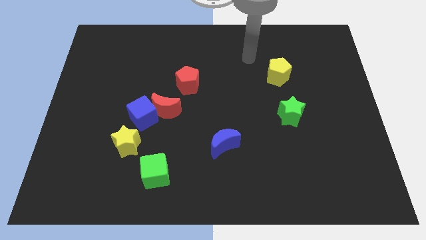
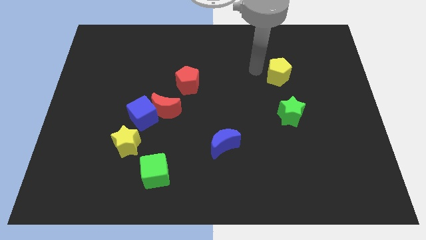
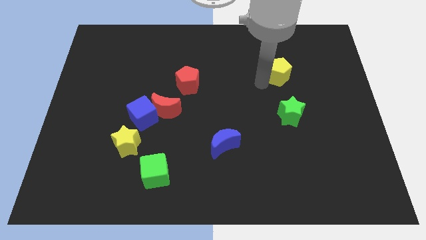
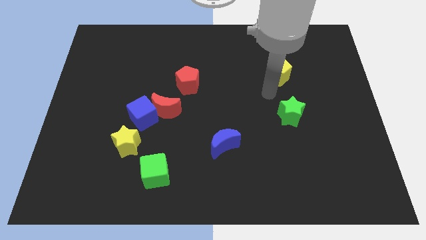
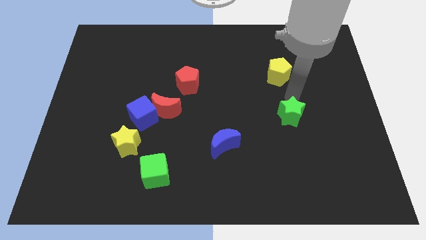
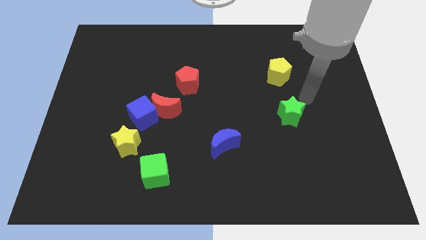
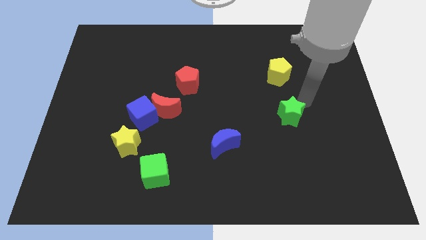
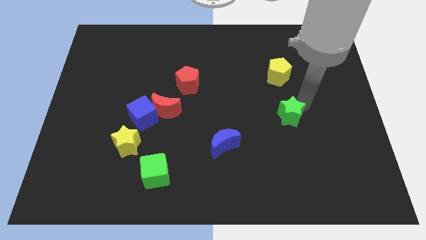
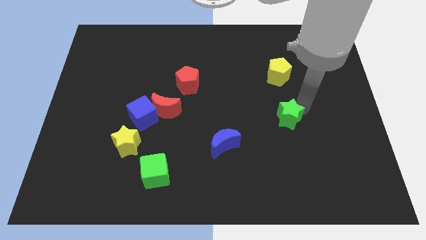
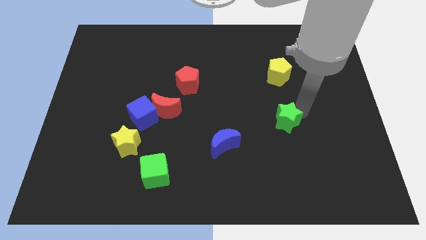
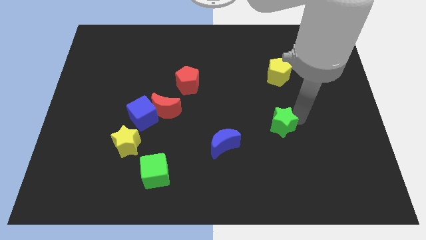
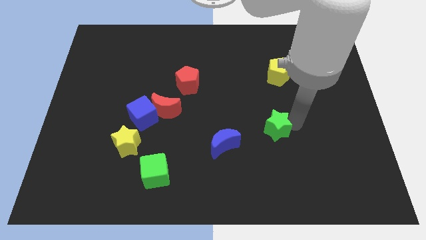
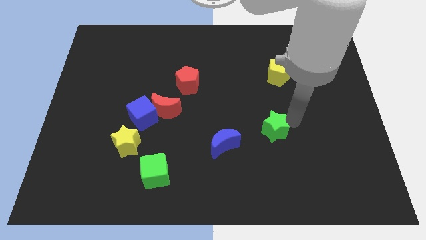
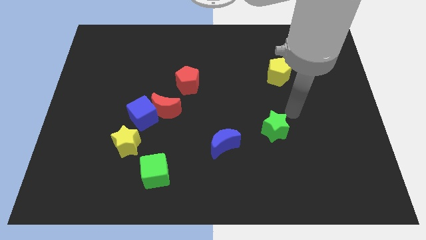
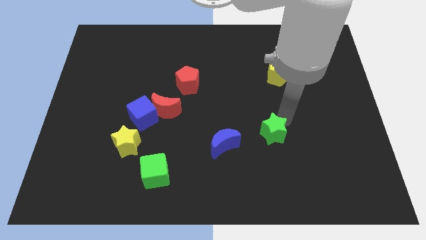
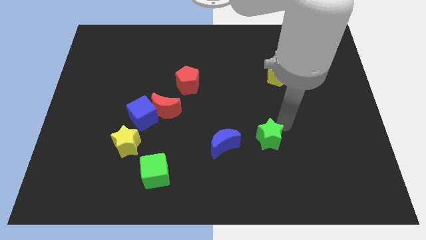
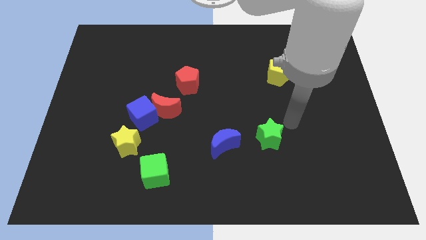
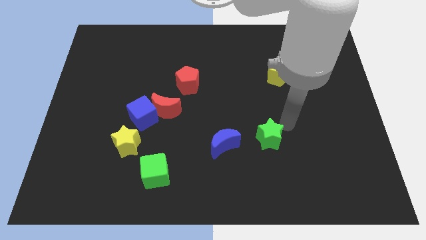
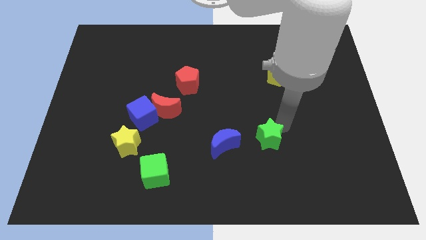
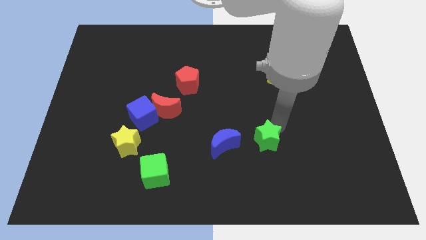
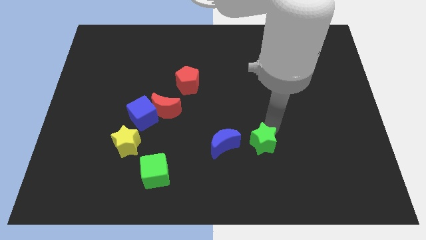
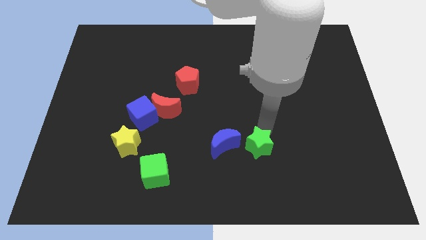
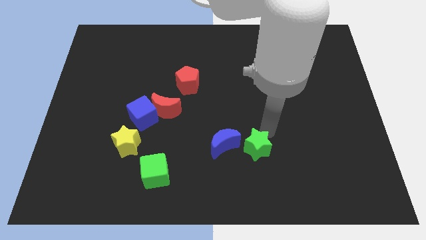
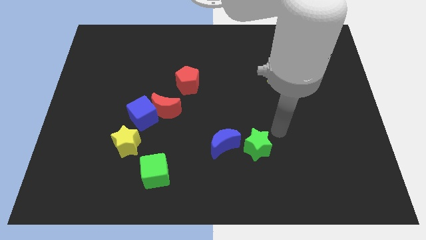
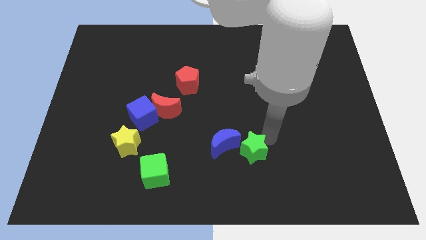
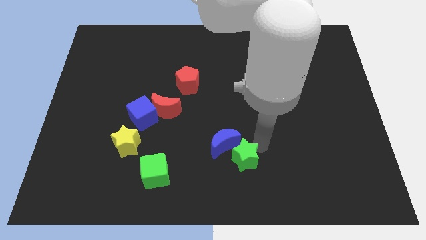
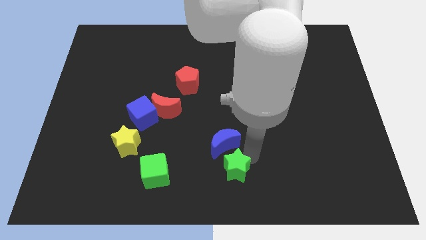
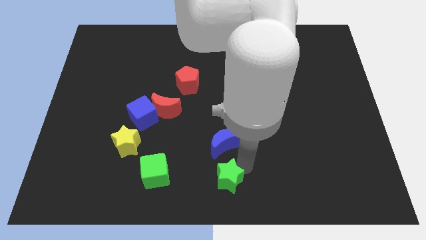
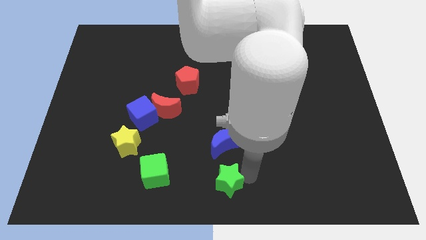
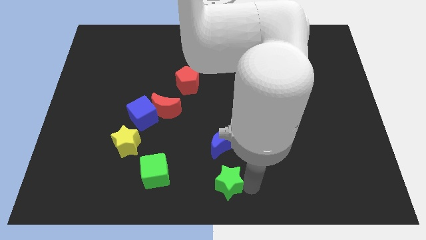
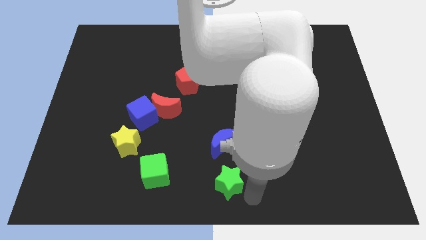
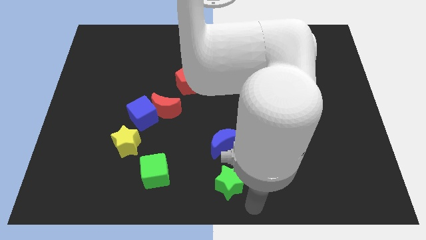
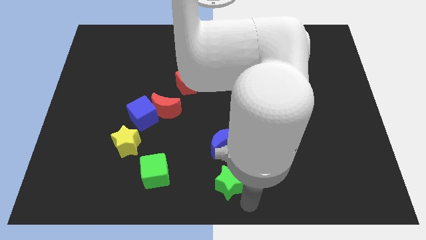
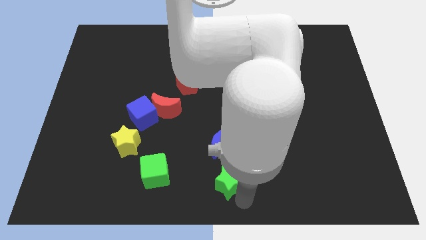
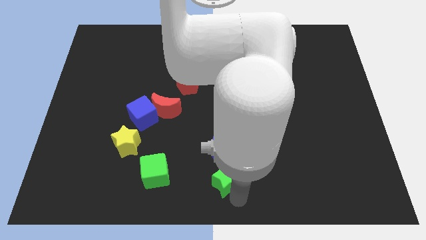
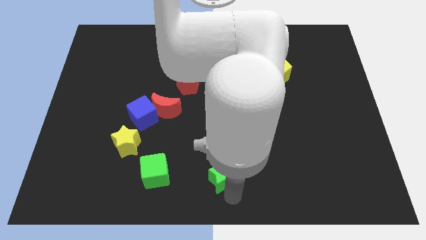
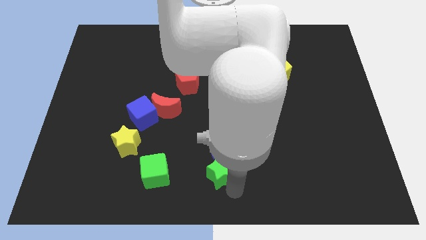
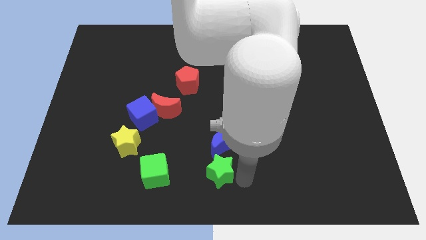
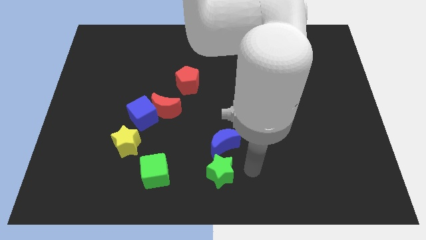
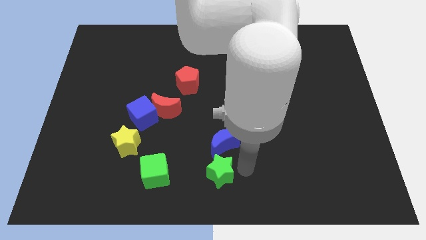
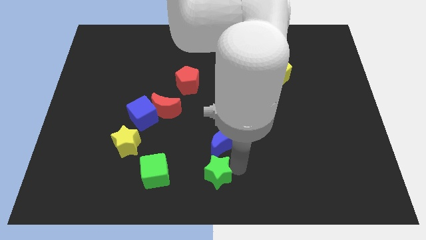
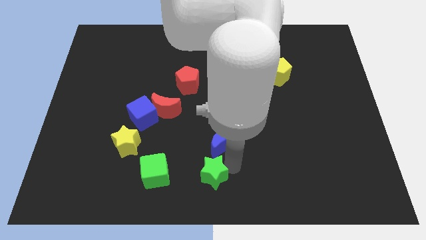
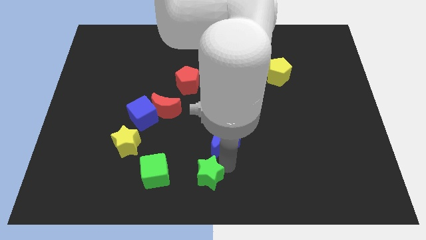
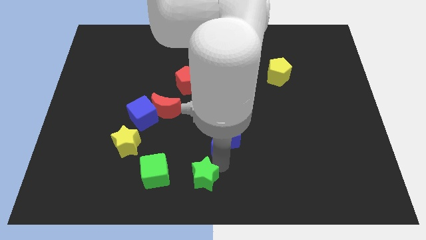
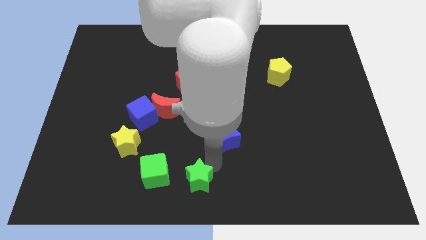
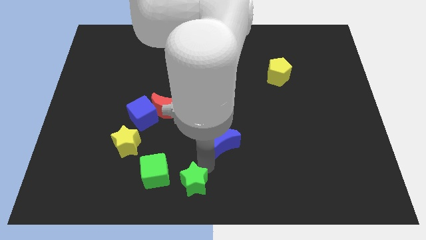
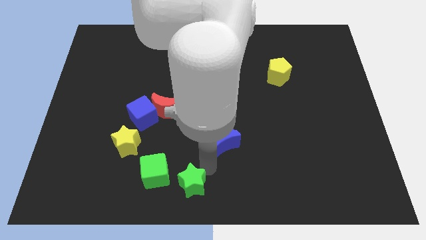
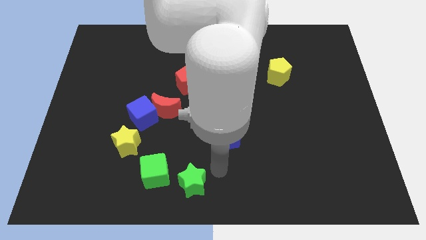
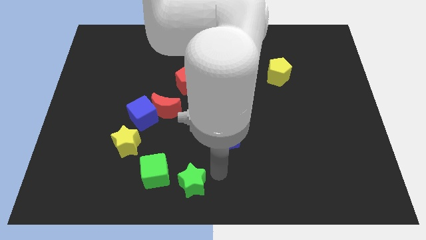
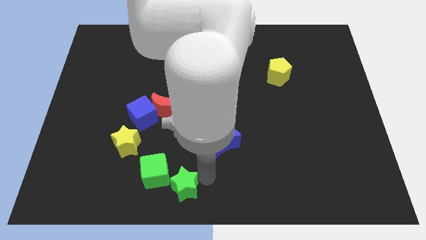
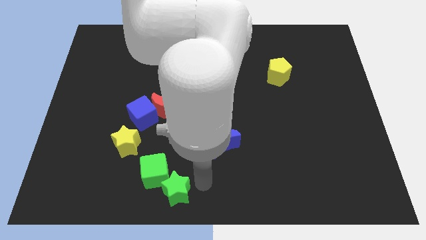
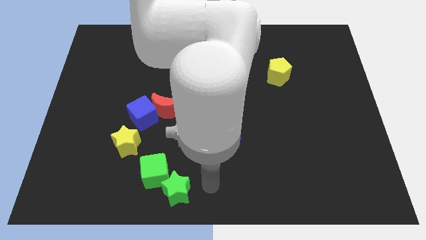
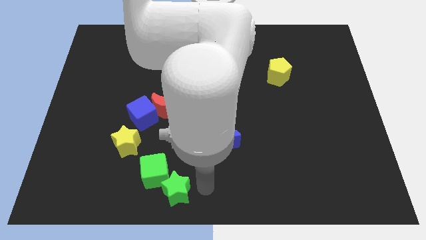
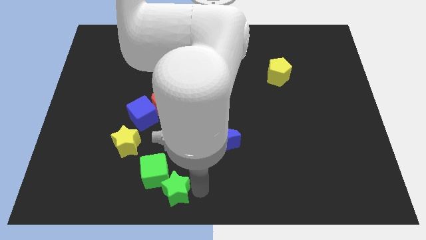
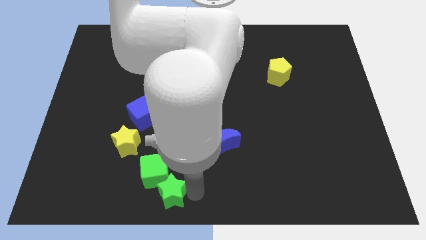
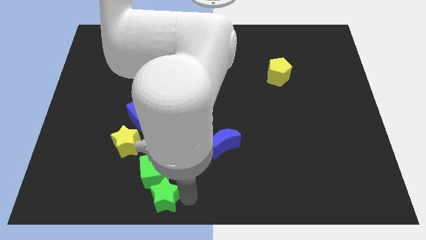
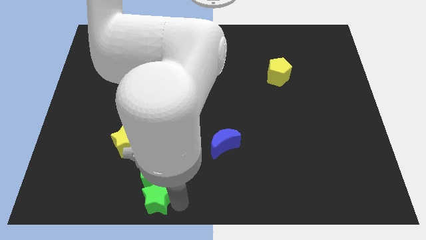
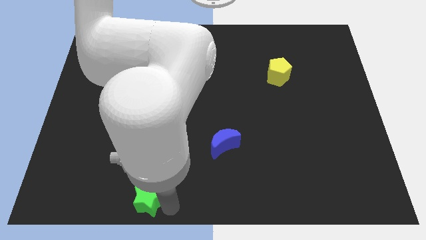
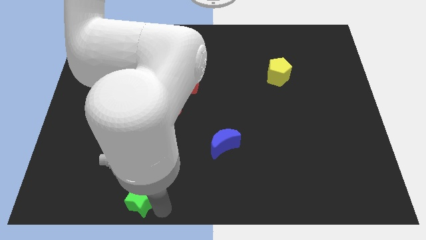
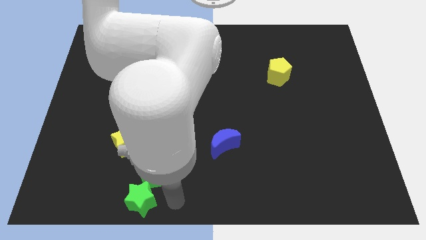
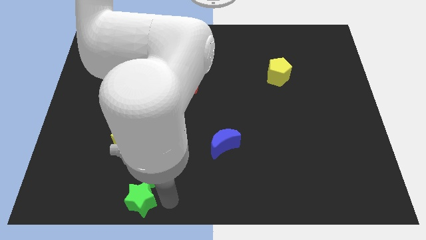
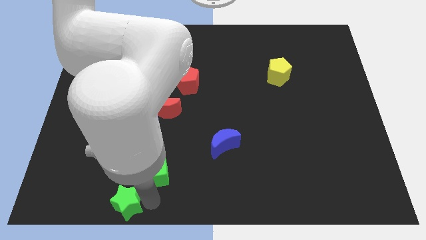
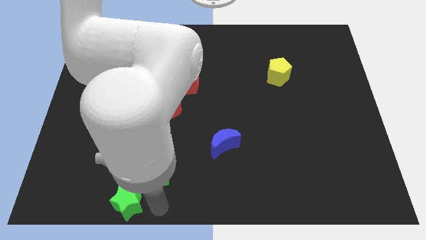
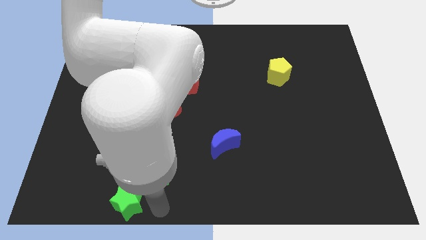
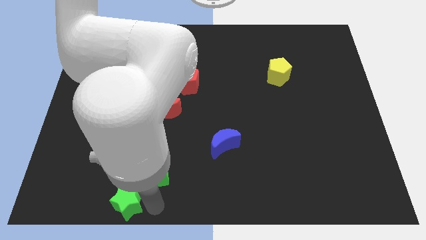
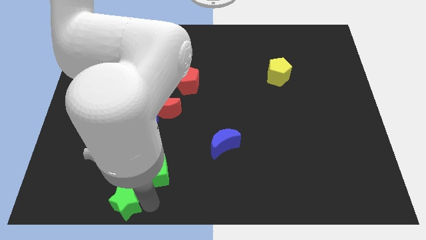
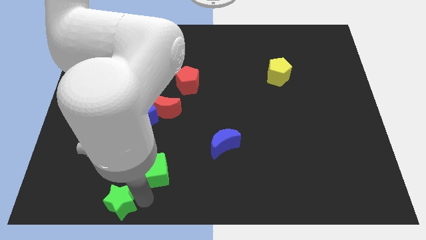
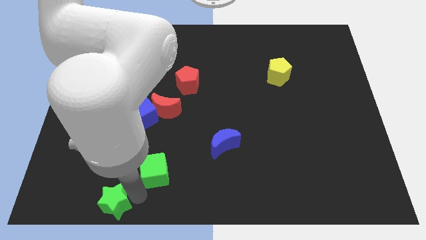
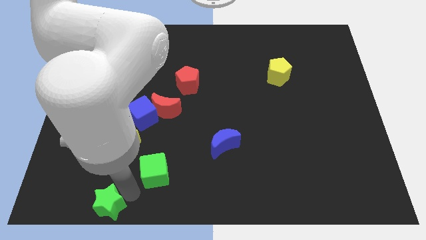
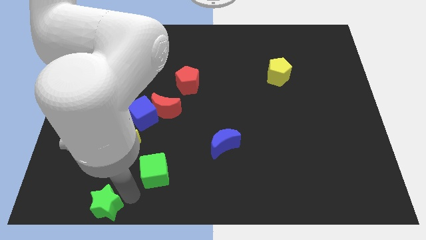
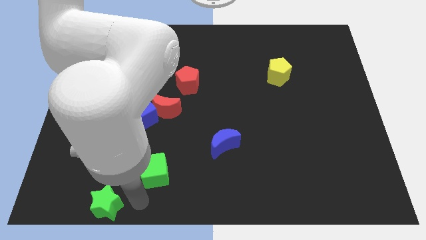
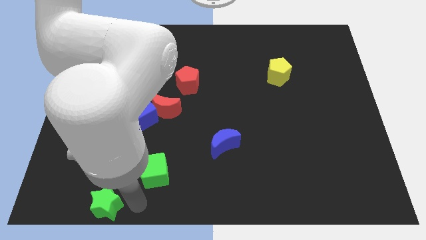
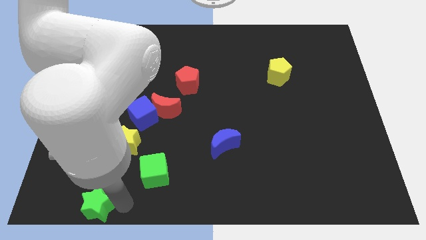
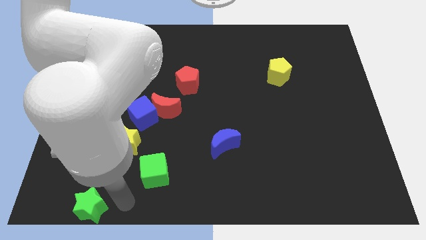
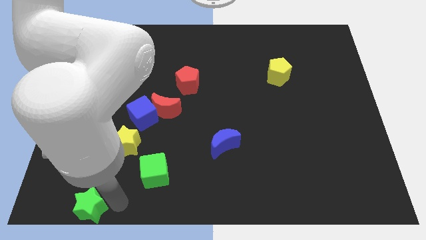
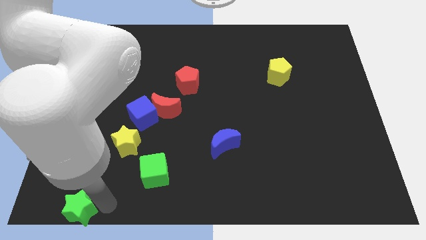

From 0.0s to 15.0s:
put the green star to the lower left corner
